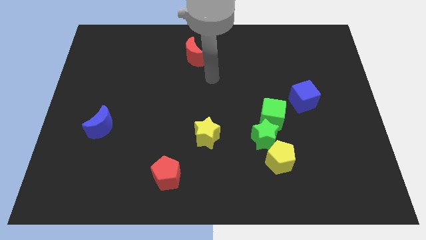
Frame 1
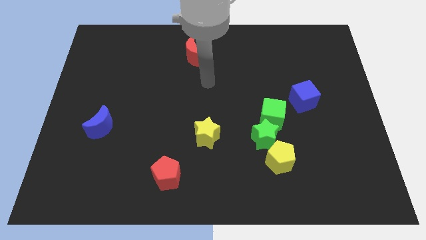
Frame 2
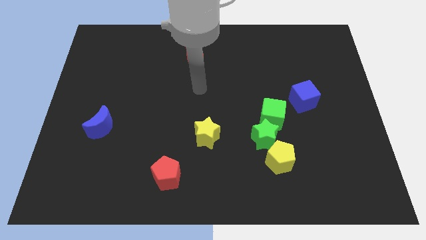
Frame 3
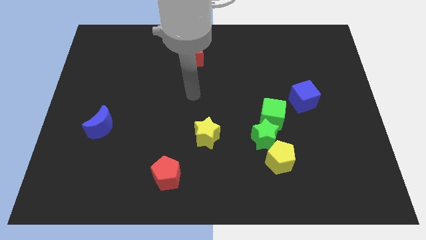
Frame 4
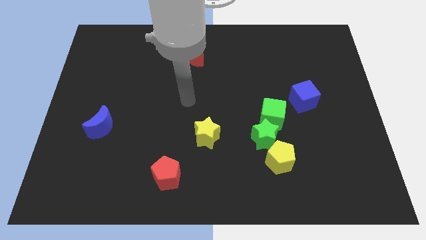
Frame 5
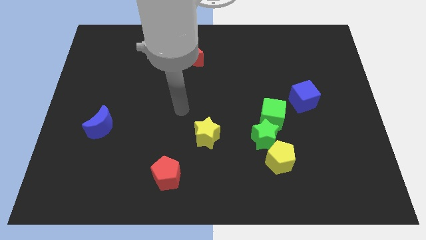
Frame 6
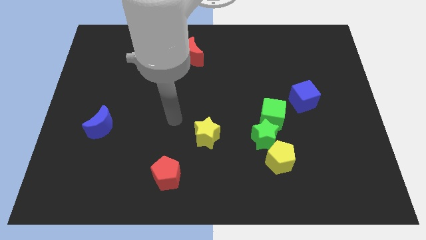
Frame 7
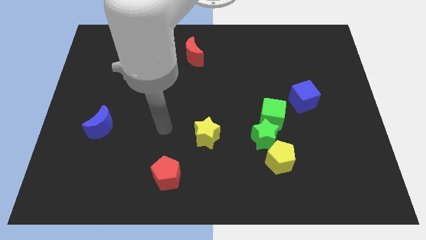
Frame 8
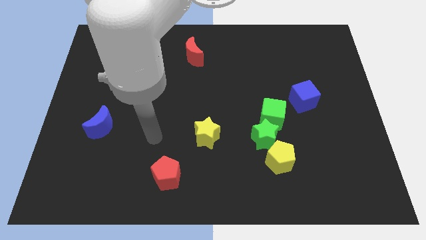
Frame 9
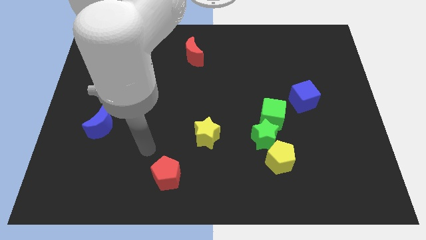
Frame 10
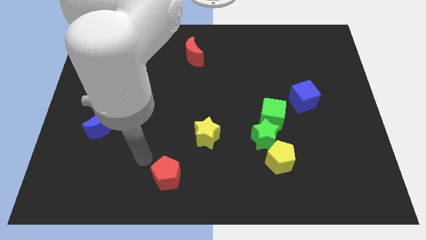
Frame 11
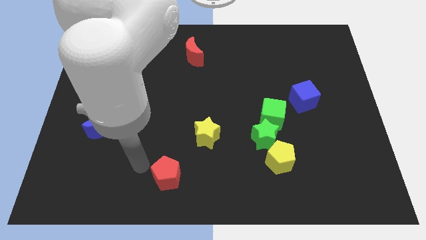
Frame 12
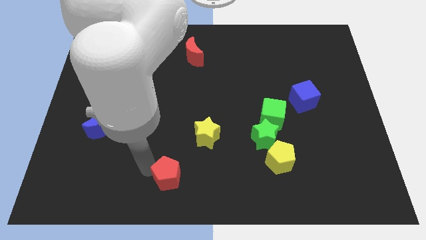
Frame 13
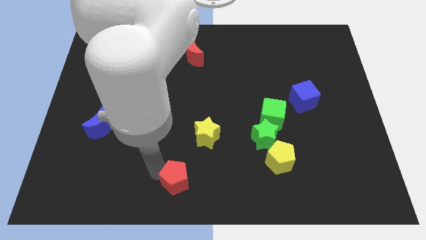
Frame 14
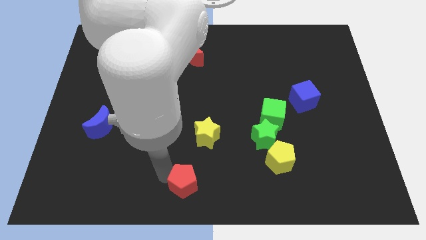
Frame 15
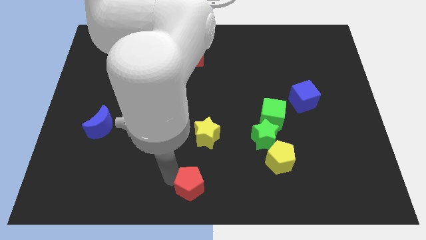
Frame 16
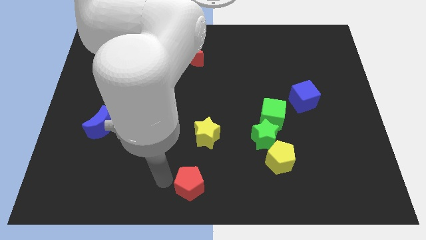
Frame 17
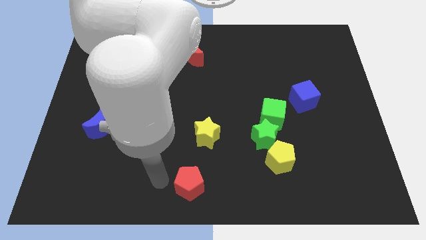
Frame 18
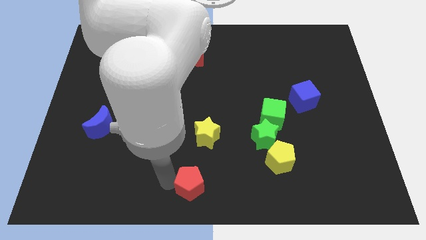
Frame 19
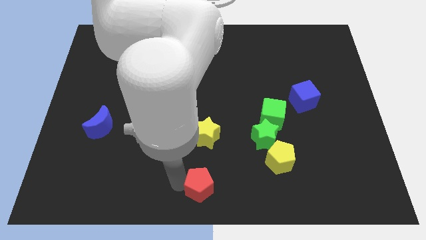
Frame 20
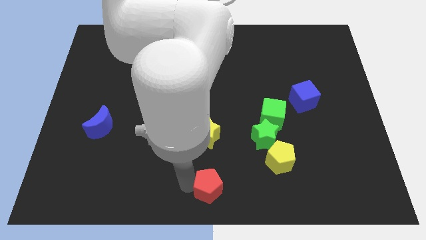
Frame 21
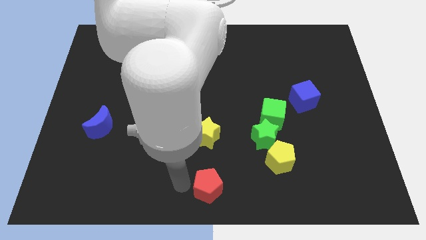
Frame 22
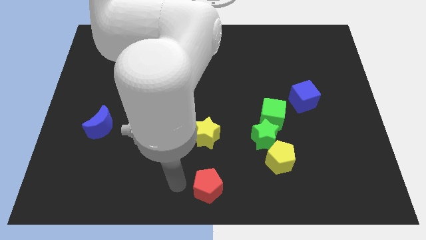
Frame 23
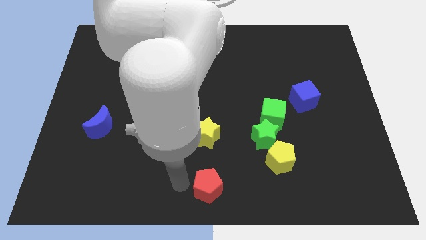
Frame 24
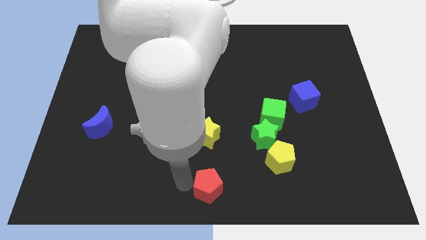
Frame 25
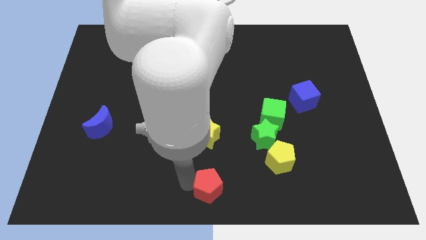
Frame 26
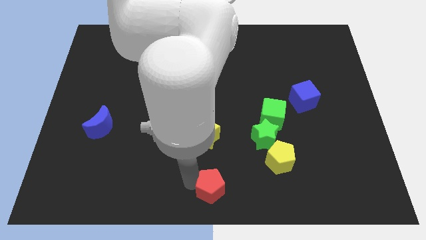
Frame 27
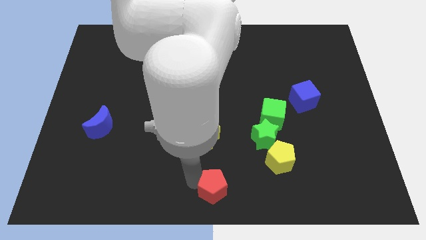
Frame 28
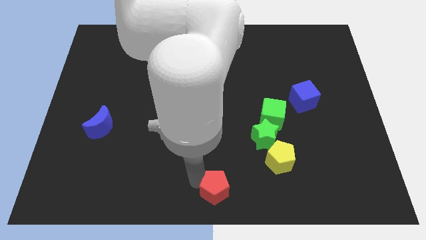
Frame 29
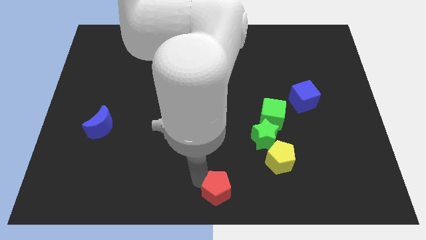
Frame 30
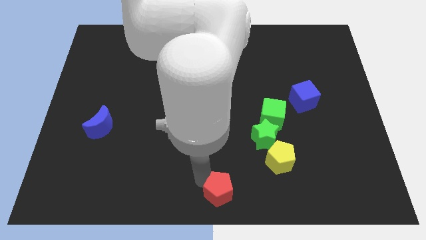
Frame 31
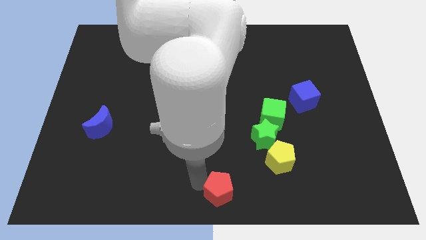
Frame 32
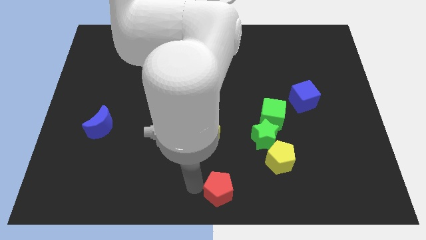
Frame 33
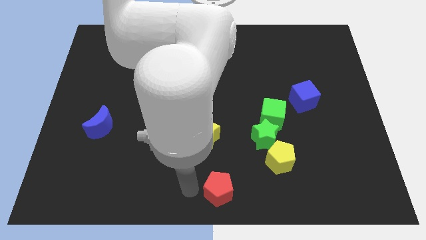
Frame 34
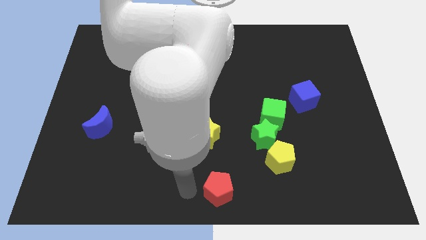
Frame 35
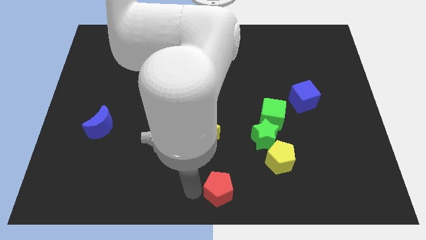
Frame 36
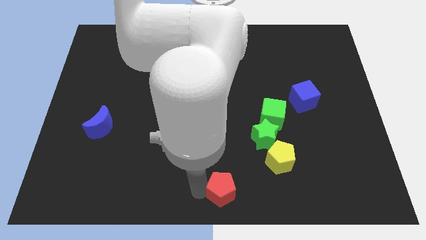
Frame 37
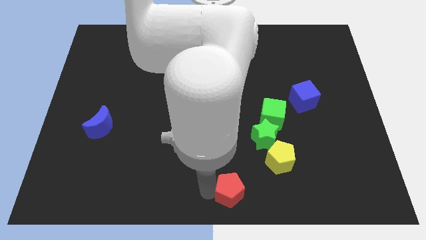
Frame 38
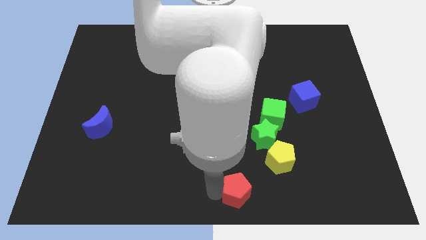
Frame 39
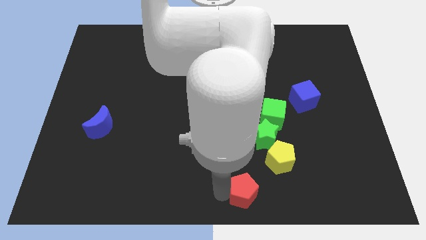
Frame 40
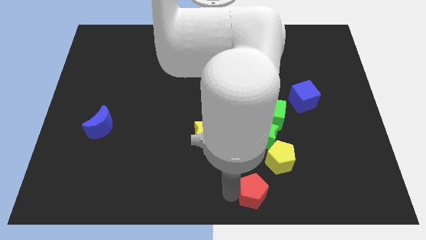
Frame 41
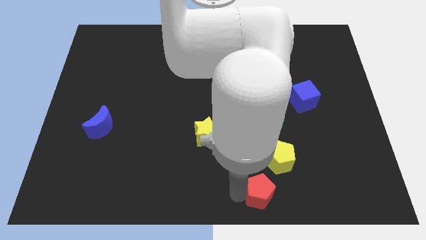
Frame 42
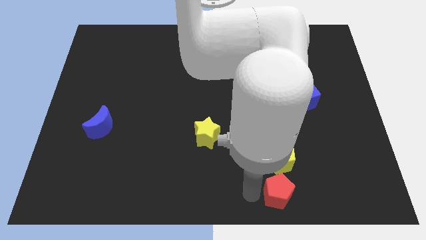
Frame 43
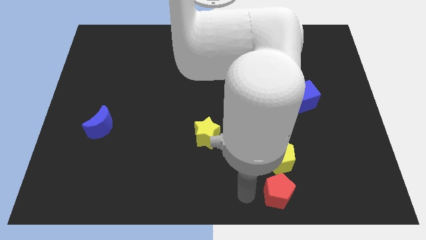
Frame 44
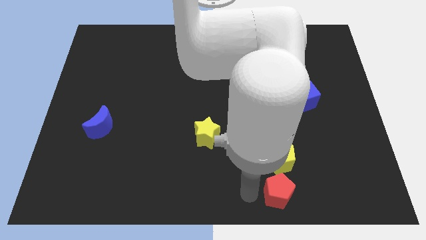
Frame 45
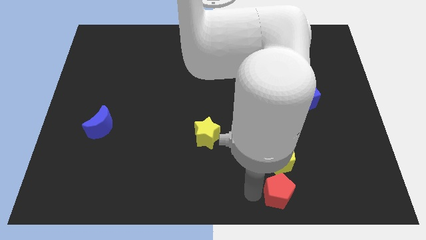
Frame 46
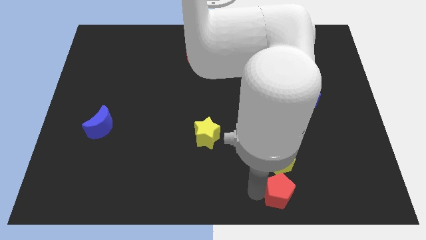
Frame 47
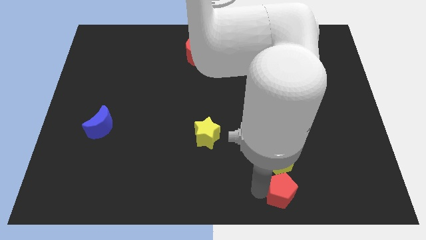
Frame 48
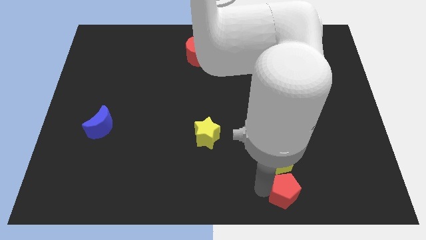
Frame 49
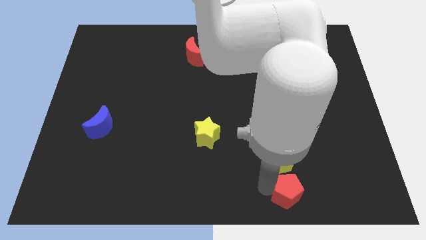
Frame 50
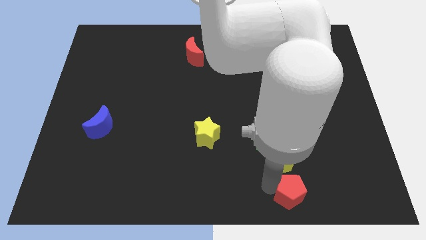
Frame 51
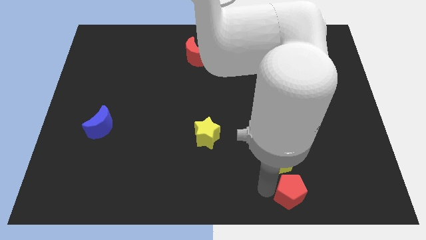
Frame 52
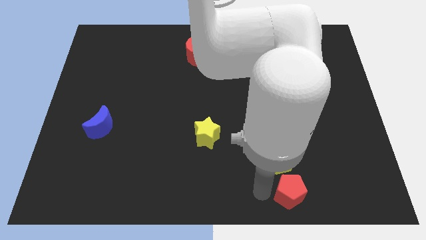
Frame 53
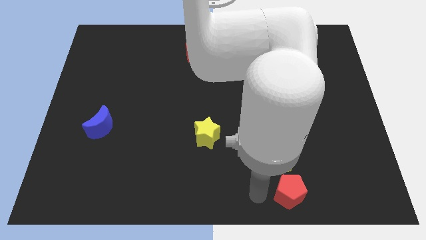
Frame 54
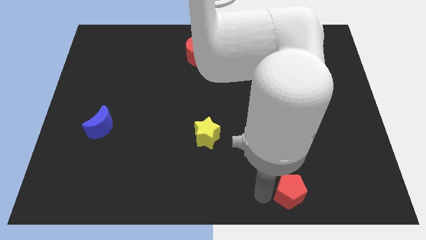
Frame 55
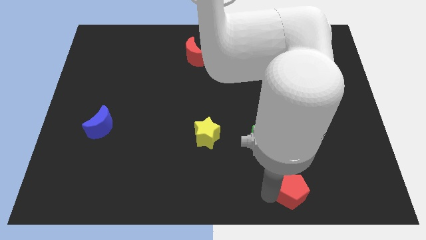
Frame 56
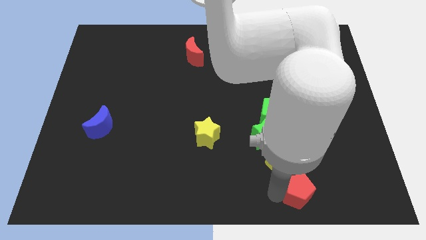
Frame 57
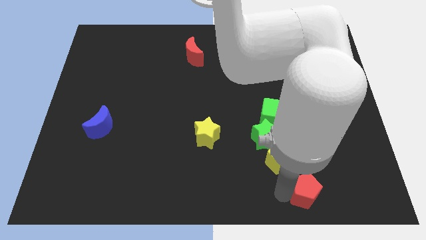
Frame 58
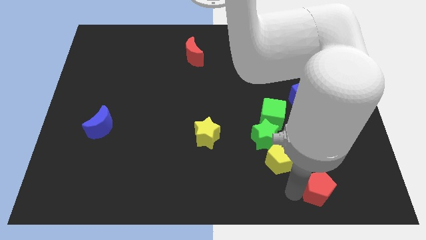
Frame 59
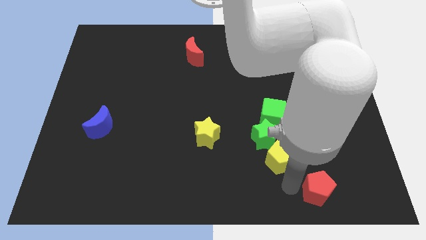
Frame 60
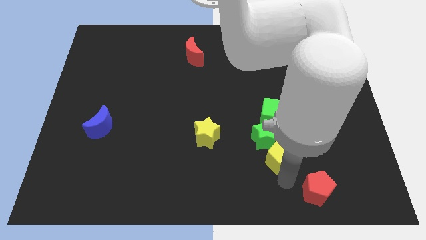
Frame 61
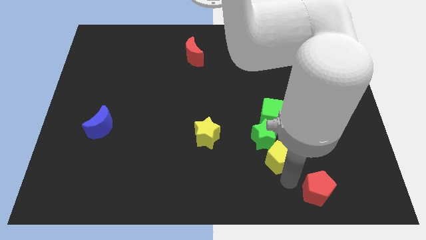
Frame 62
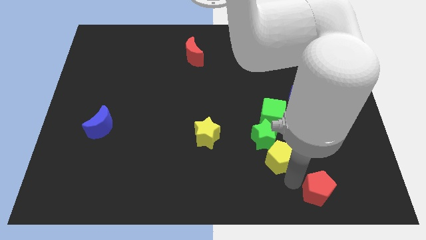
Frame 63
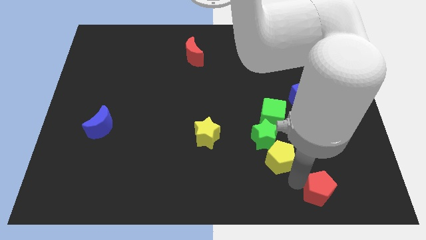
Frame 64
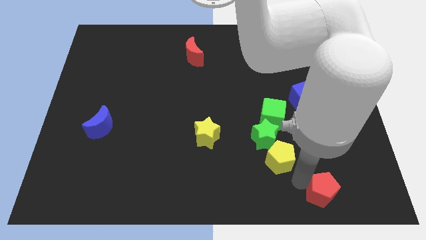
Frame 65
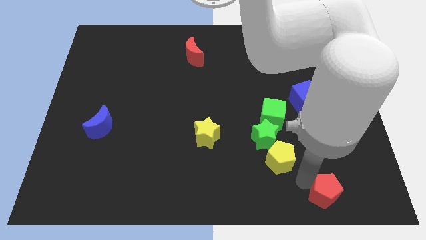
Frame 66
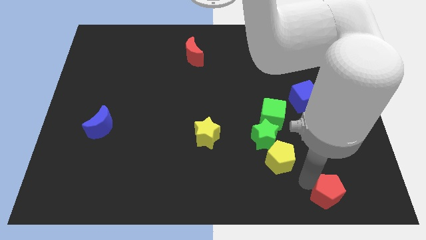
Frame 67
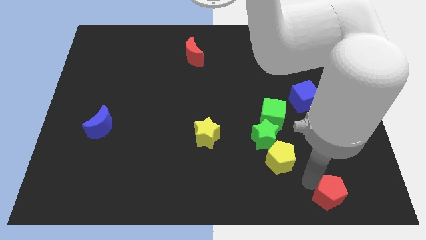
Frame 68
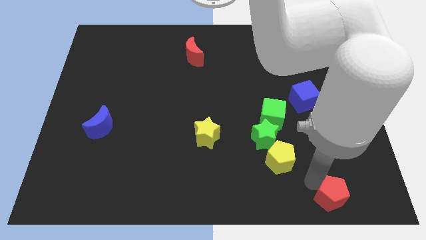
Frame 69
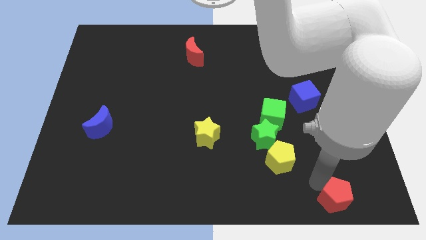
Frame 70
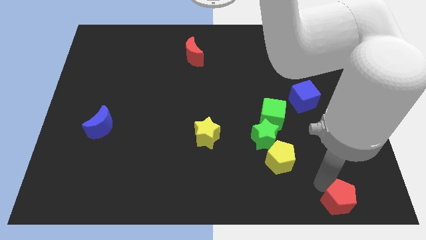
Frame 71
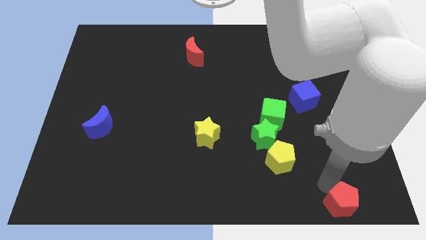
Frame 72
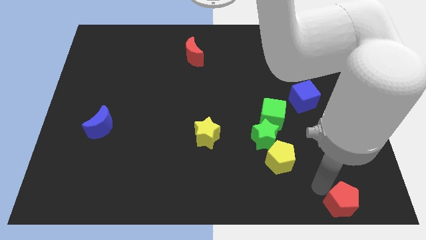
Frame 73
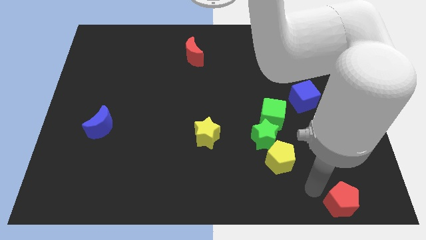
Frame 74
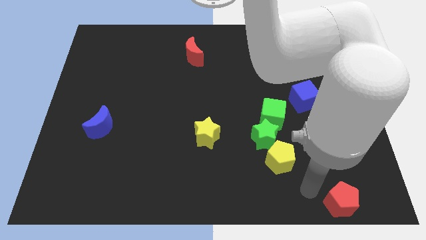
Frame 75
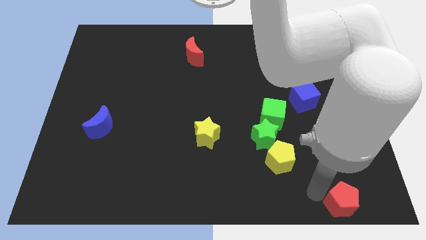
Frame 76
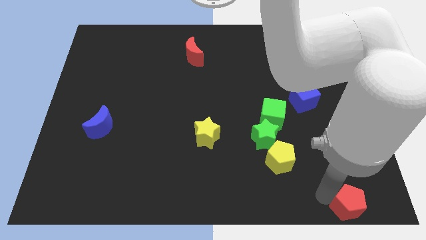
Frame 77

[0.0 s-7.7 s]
put the red pentagon to the bottom right
